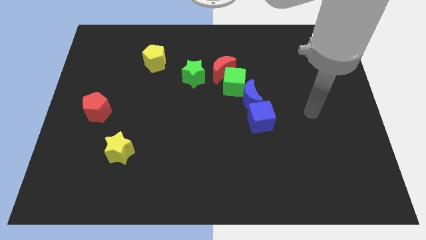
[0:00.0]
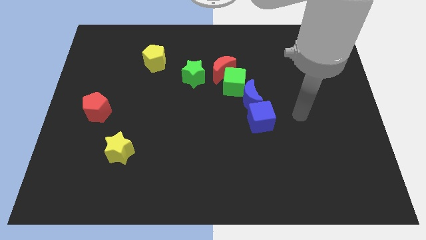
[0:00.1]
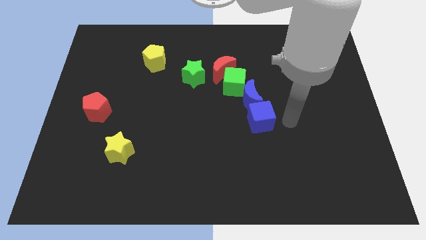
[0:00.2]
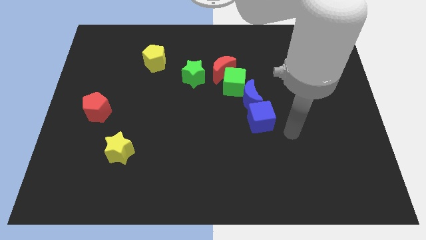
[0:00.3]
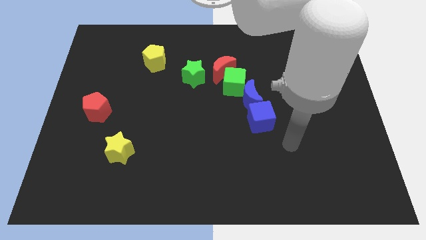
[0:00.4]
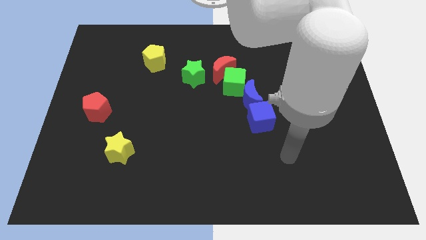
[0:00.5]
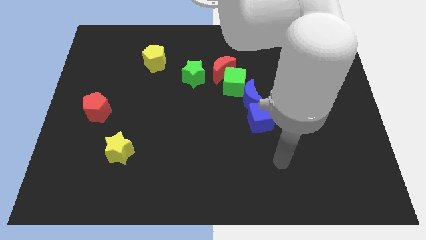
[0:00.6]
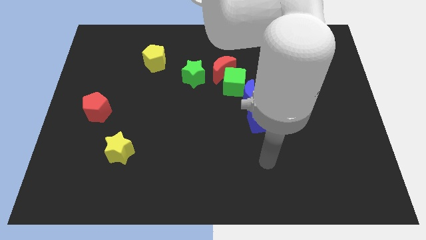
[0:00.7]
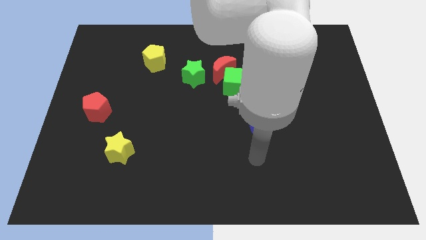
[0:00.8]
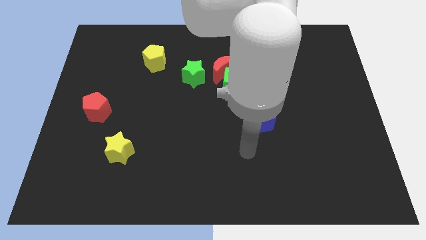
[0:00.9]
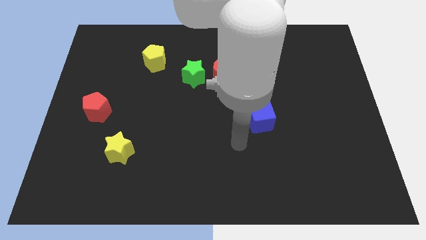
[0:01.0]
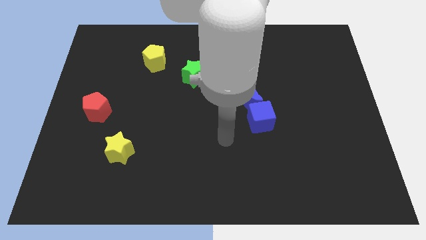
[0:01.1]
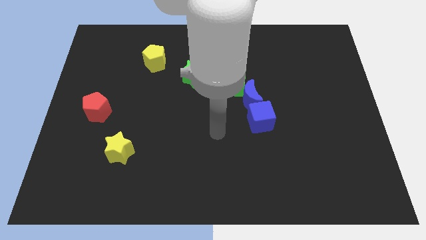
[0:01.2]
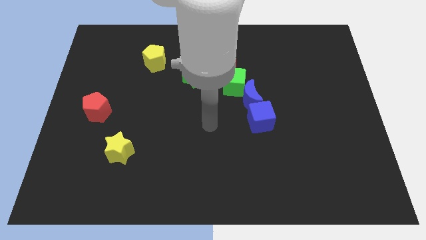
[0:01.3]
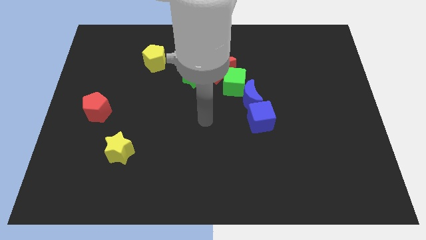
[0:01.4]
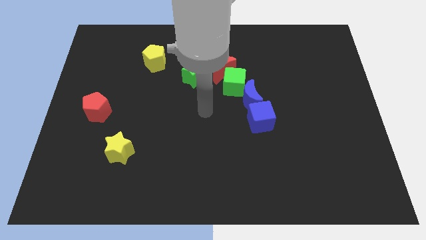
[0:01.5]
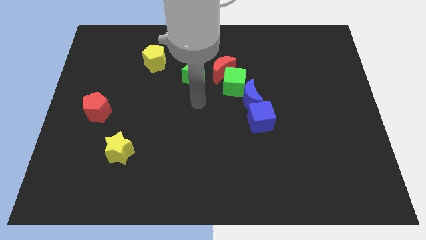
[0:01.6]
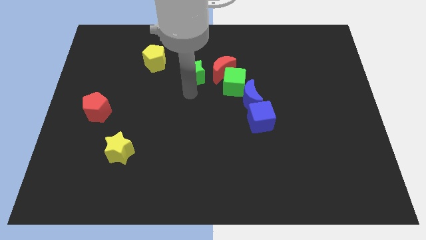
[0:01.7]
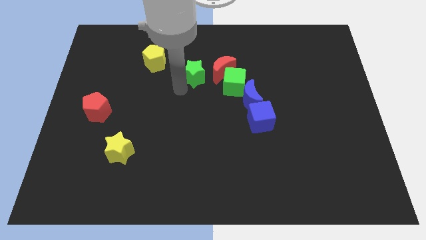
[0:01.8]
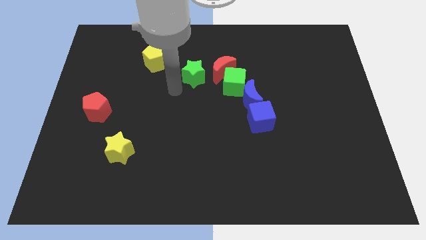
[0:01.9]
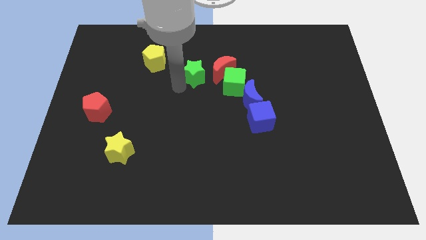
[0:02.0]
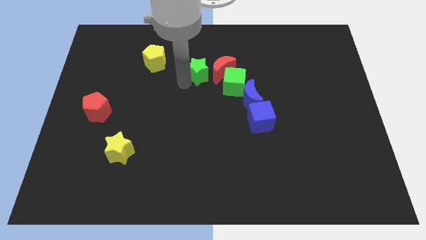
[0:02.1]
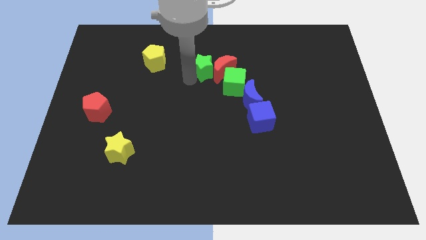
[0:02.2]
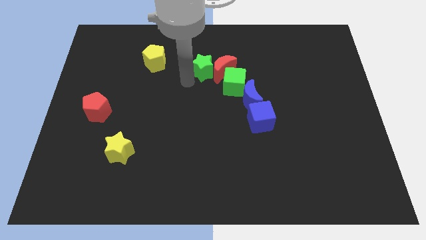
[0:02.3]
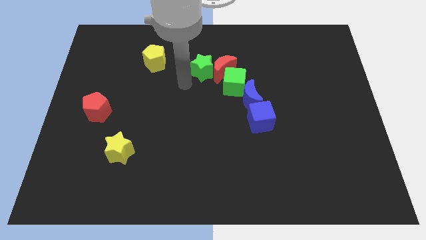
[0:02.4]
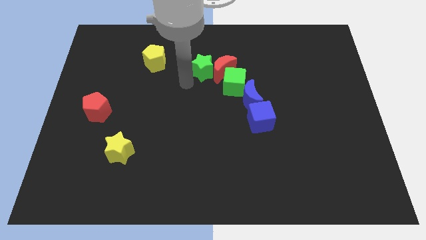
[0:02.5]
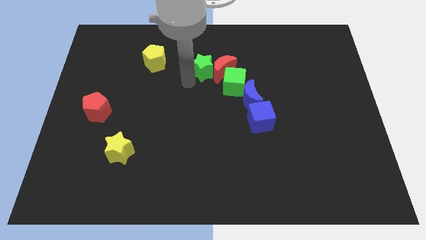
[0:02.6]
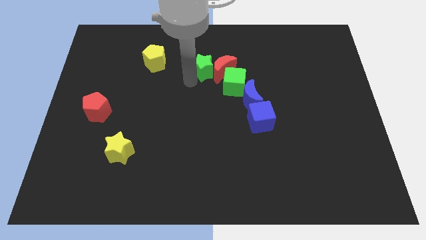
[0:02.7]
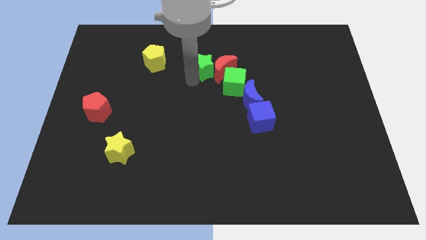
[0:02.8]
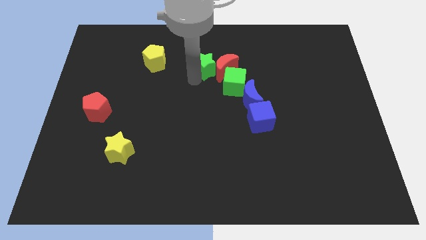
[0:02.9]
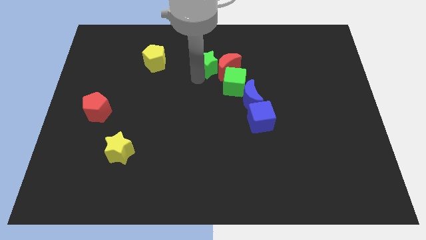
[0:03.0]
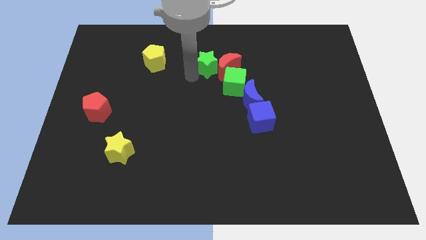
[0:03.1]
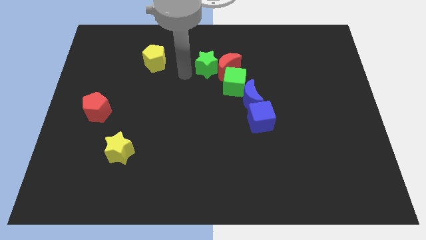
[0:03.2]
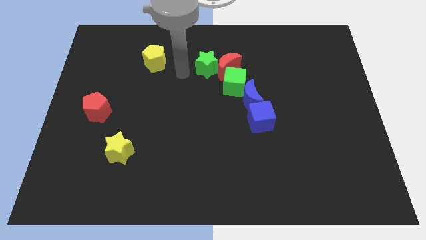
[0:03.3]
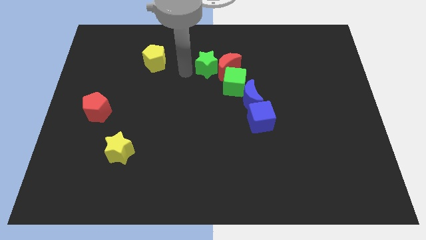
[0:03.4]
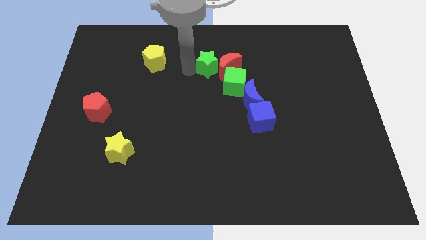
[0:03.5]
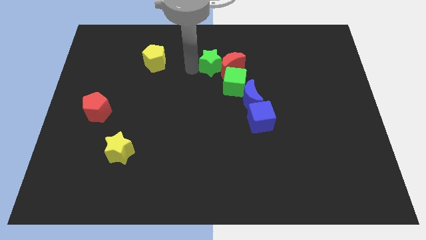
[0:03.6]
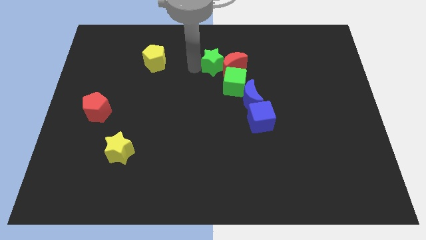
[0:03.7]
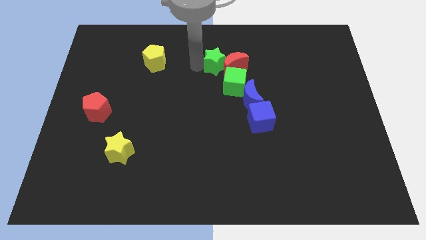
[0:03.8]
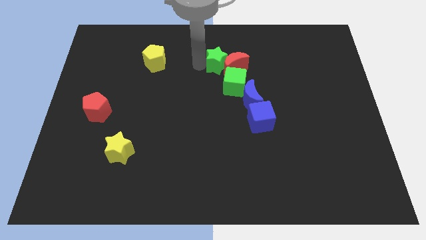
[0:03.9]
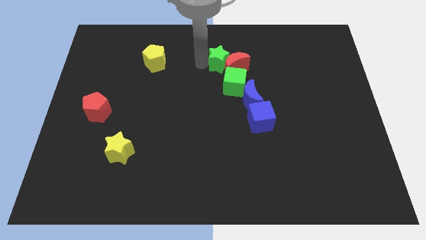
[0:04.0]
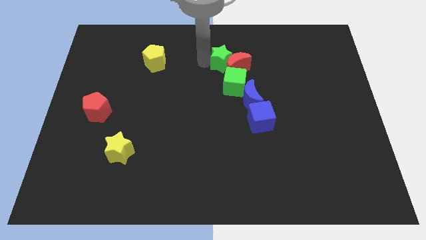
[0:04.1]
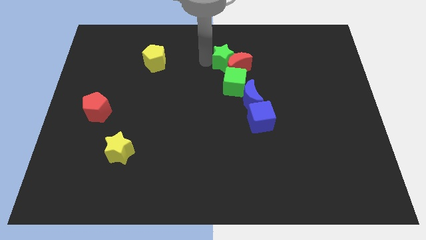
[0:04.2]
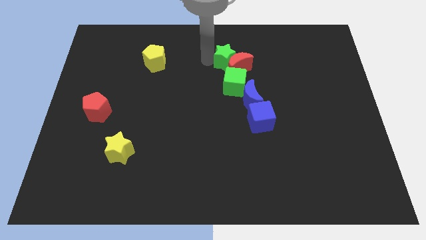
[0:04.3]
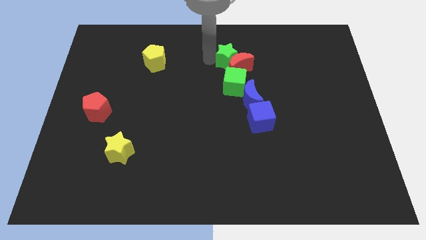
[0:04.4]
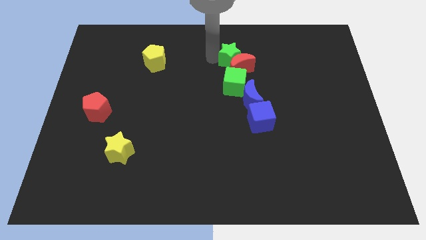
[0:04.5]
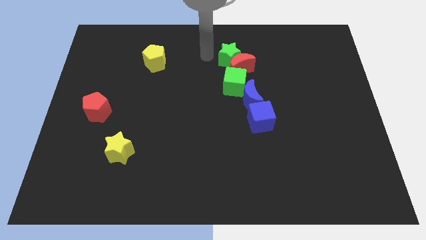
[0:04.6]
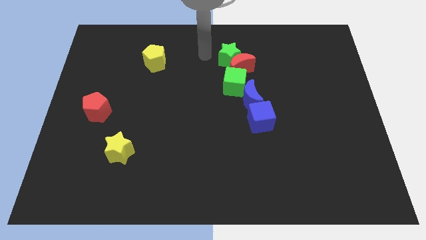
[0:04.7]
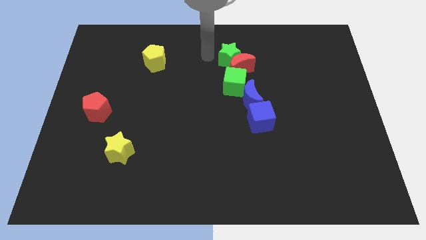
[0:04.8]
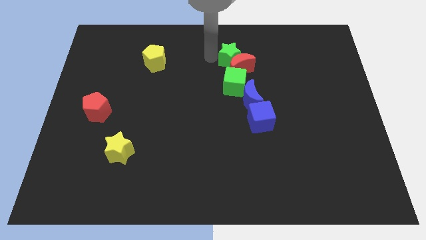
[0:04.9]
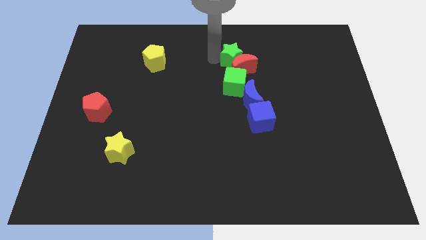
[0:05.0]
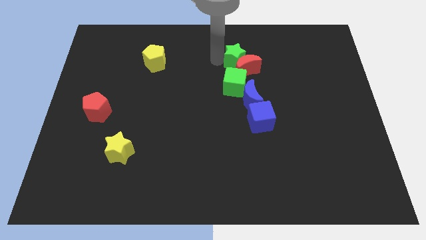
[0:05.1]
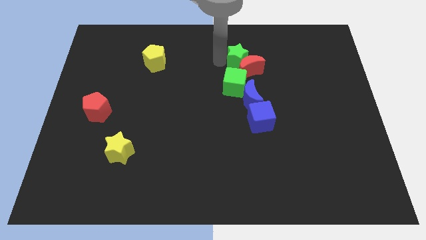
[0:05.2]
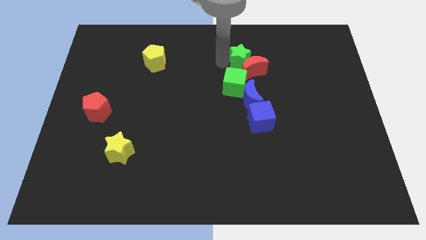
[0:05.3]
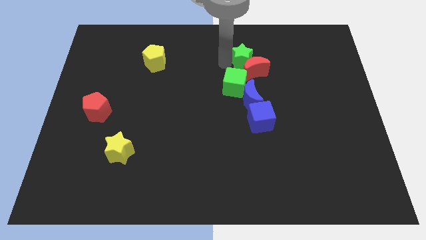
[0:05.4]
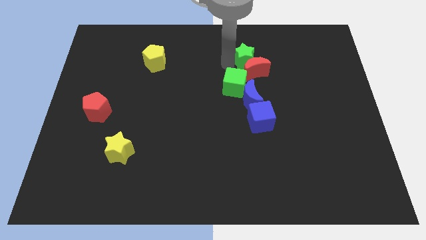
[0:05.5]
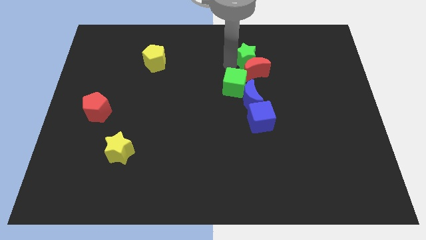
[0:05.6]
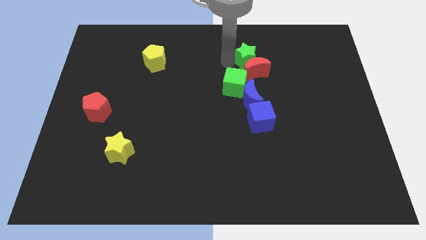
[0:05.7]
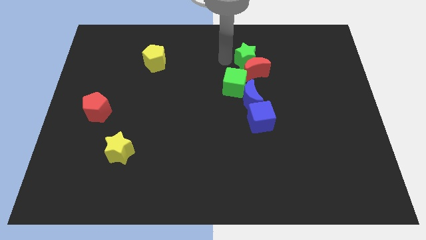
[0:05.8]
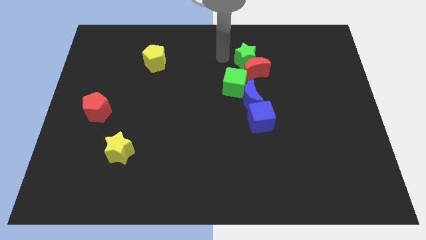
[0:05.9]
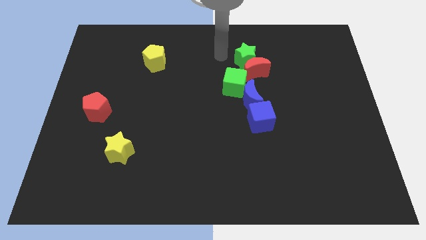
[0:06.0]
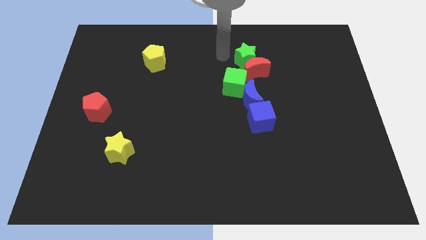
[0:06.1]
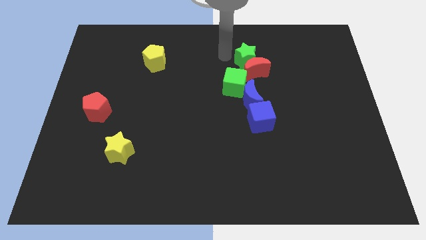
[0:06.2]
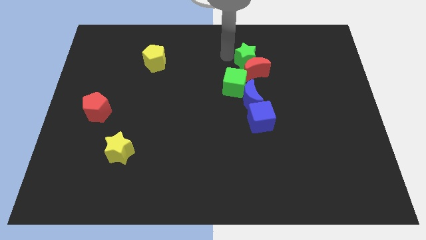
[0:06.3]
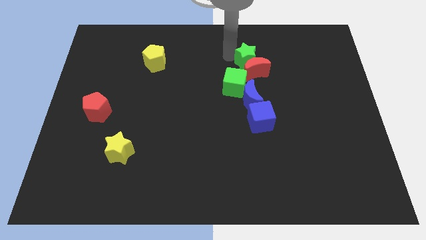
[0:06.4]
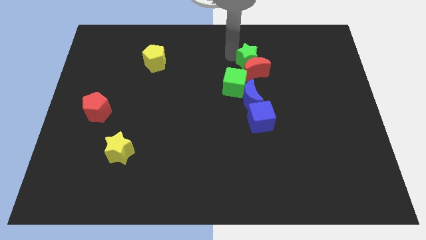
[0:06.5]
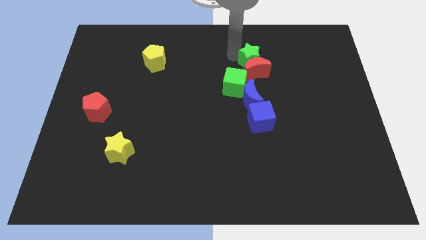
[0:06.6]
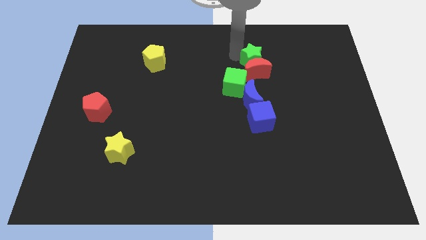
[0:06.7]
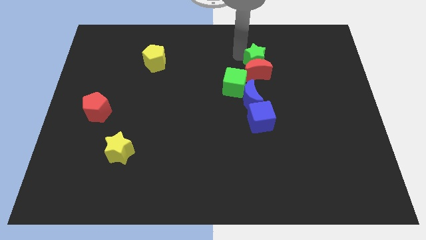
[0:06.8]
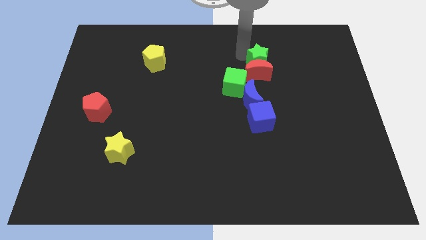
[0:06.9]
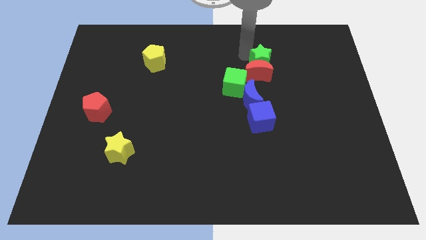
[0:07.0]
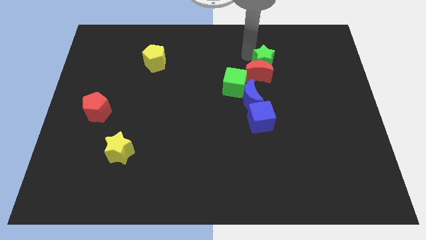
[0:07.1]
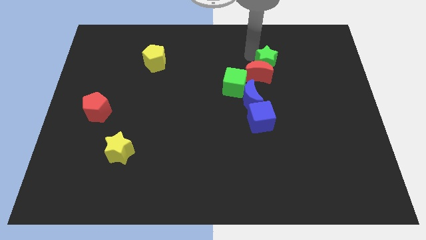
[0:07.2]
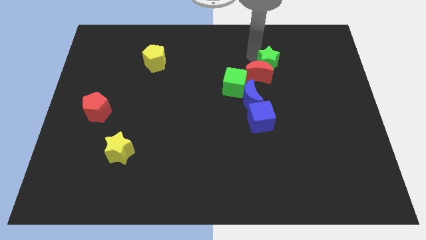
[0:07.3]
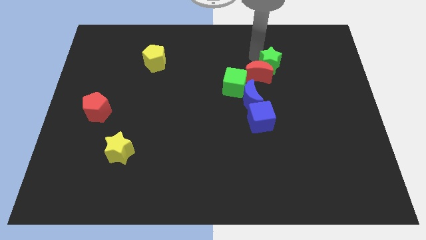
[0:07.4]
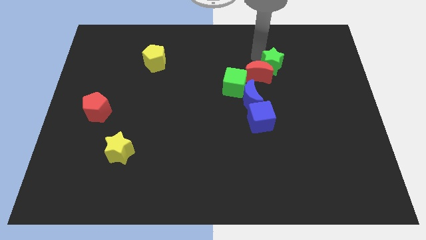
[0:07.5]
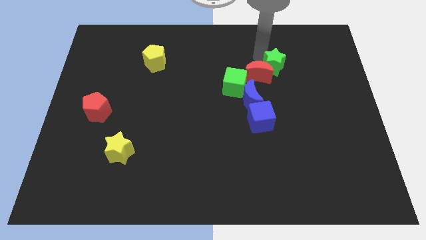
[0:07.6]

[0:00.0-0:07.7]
push the green star right

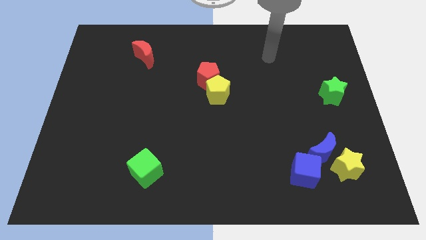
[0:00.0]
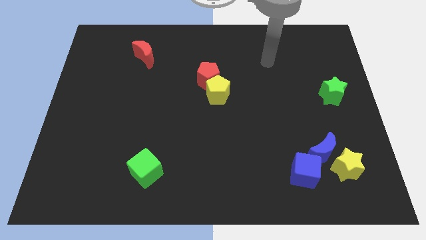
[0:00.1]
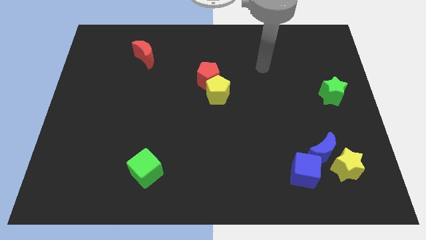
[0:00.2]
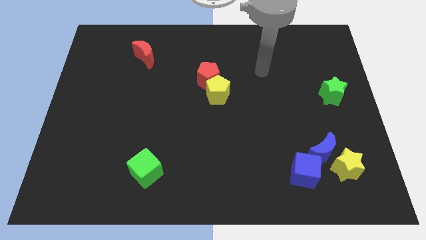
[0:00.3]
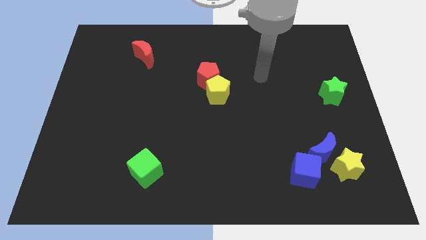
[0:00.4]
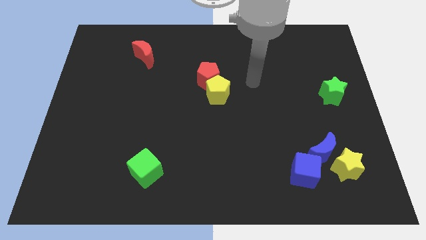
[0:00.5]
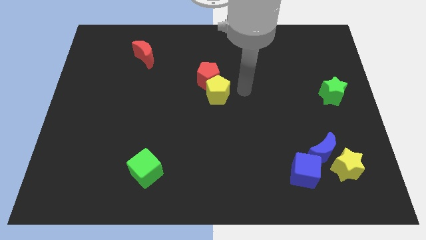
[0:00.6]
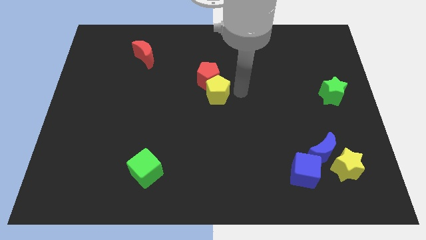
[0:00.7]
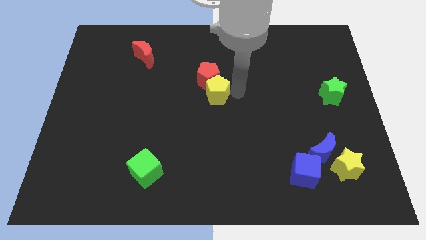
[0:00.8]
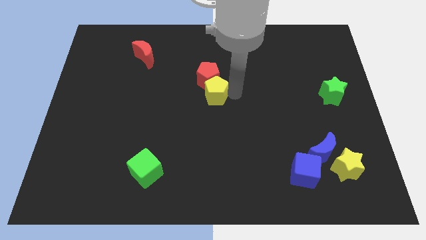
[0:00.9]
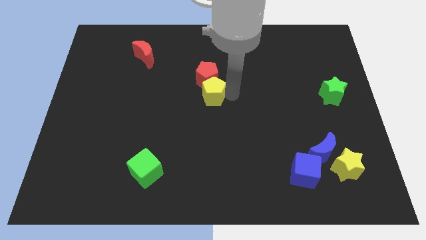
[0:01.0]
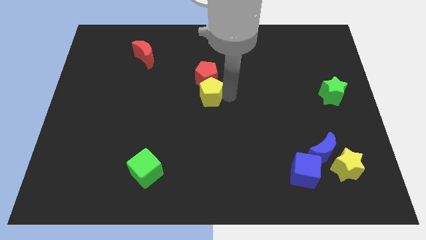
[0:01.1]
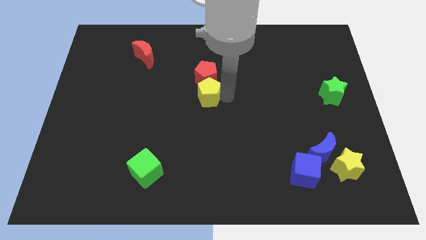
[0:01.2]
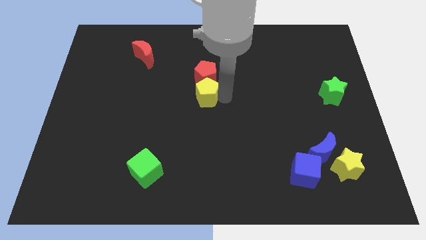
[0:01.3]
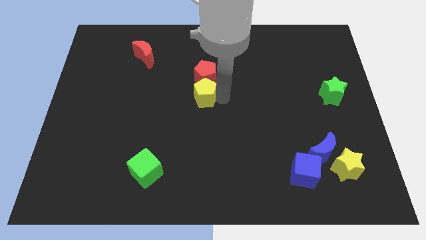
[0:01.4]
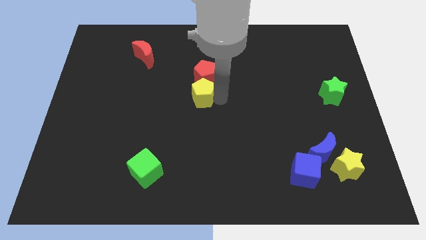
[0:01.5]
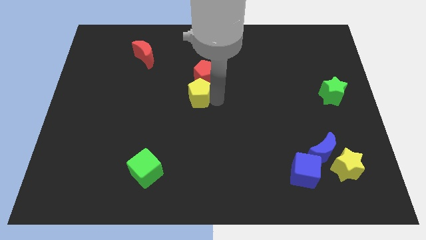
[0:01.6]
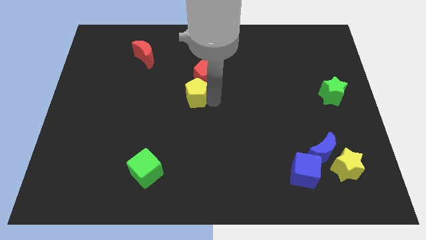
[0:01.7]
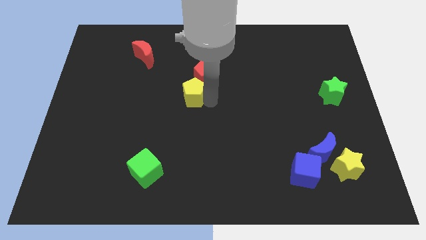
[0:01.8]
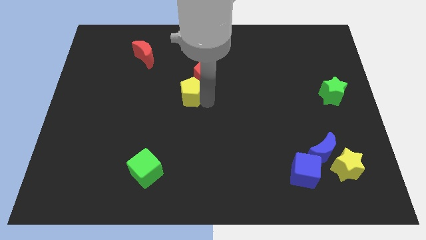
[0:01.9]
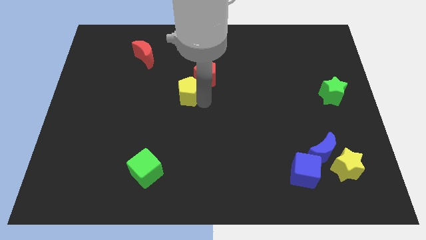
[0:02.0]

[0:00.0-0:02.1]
move the yellow pentagon a little left
